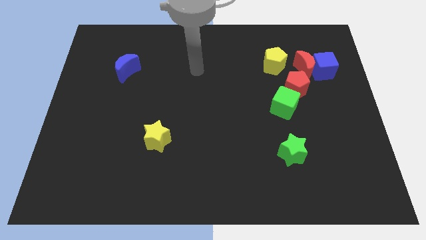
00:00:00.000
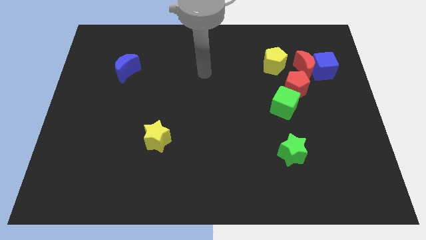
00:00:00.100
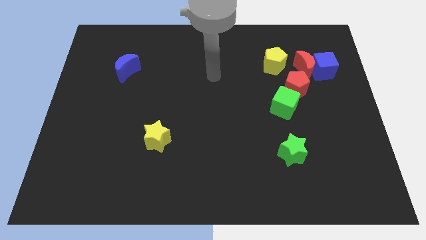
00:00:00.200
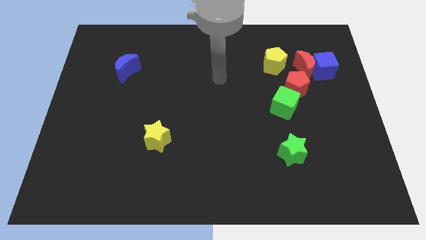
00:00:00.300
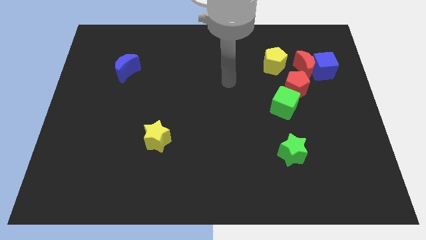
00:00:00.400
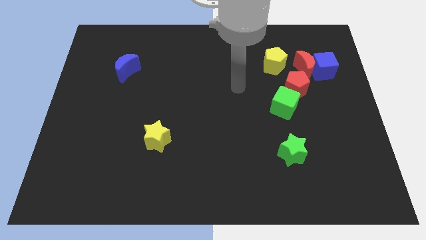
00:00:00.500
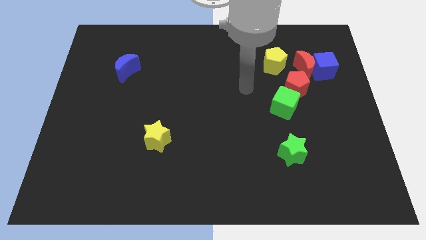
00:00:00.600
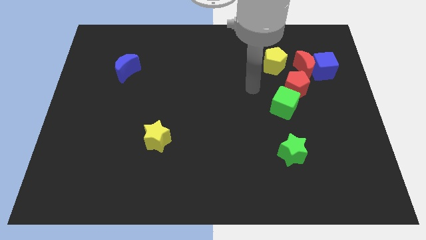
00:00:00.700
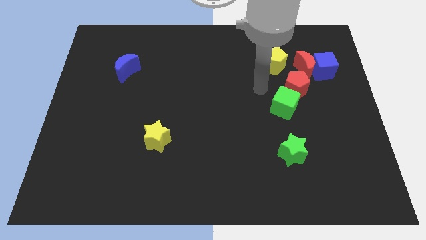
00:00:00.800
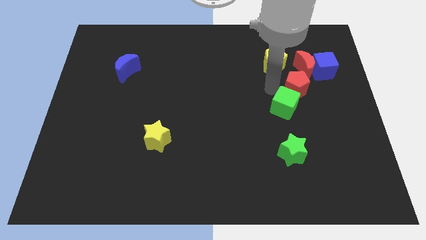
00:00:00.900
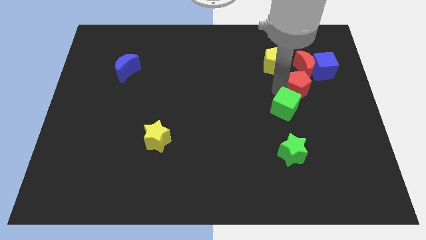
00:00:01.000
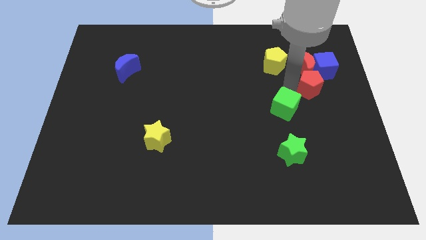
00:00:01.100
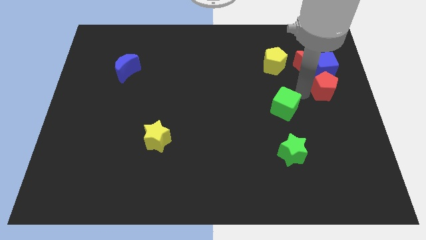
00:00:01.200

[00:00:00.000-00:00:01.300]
separate the green cube from the red pentagon

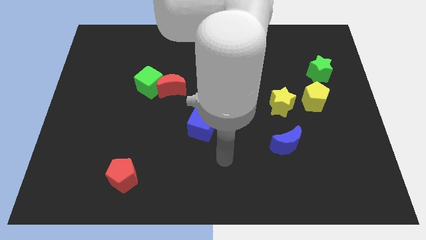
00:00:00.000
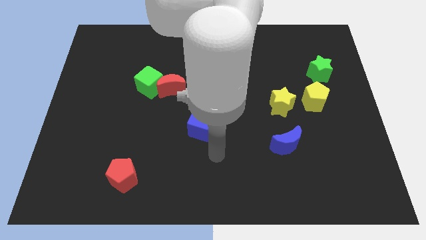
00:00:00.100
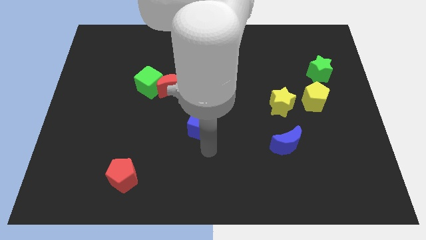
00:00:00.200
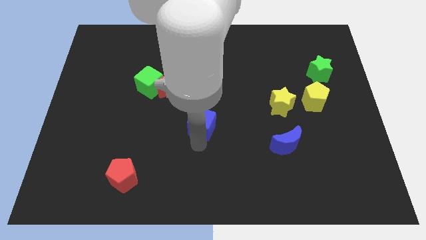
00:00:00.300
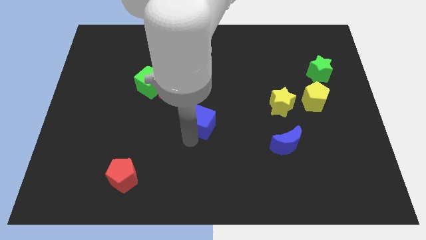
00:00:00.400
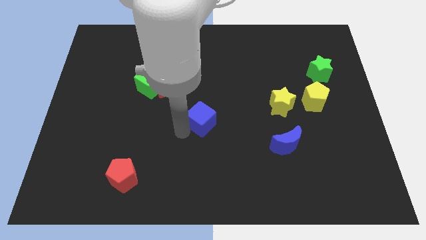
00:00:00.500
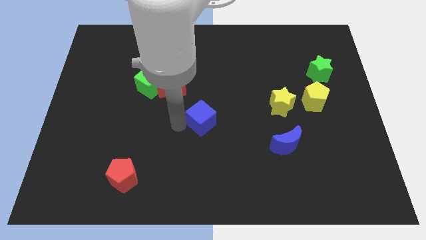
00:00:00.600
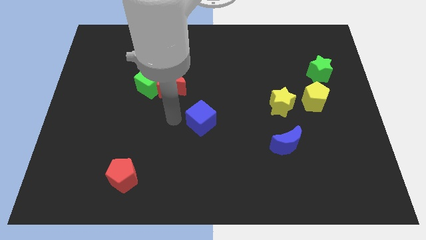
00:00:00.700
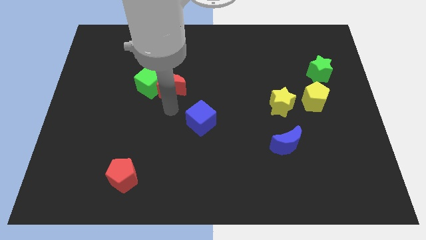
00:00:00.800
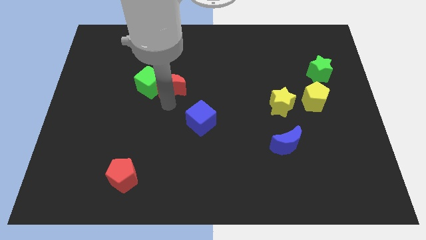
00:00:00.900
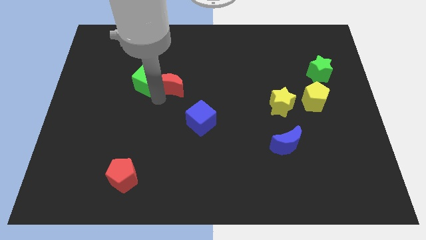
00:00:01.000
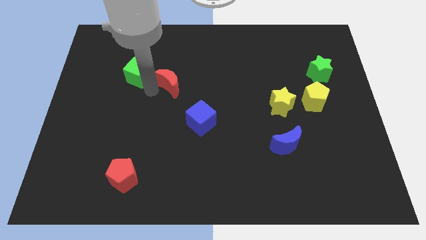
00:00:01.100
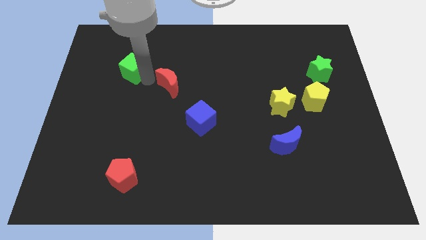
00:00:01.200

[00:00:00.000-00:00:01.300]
move the red moon away from the green cube

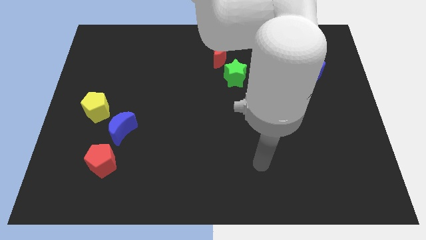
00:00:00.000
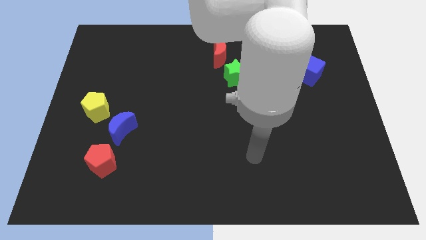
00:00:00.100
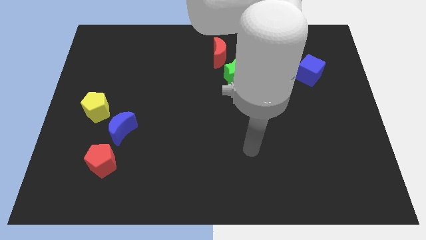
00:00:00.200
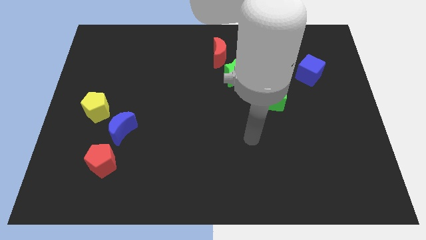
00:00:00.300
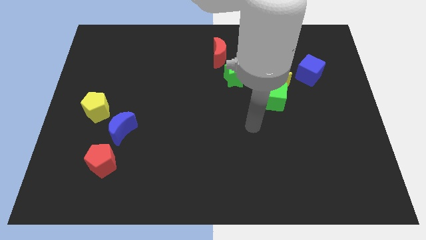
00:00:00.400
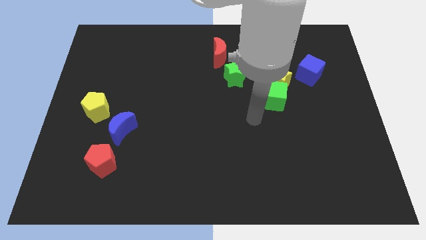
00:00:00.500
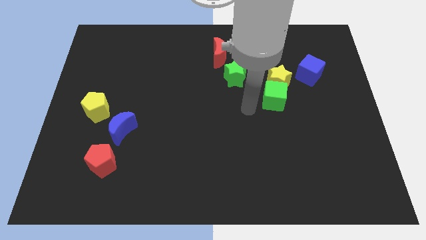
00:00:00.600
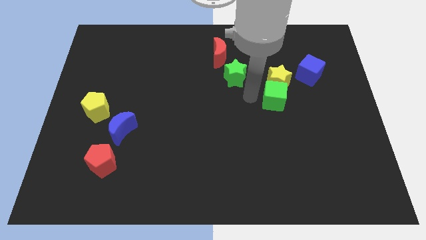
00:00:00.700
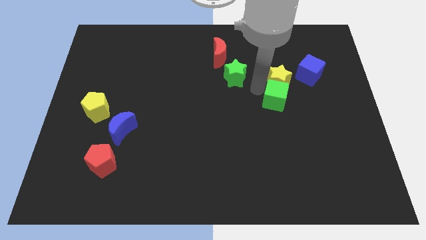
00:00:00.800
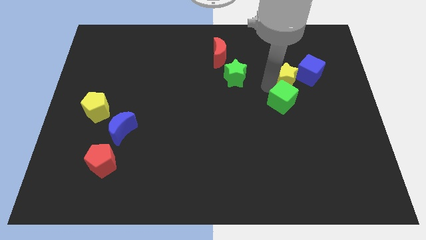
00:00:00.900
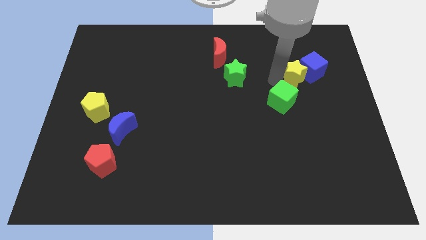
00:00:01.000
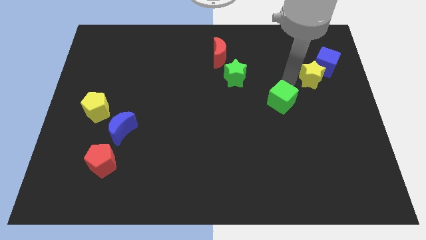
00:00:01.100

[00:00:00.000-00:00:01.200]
separate the green cube from the yellow star

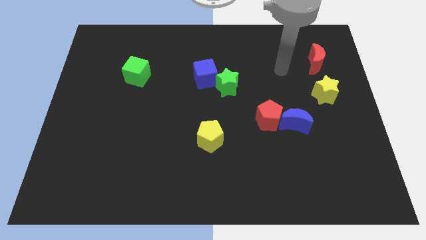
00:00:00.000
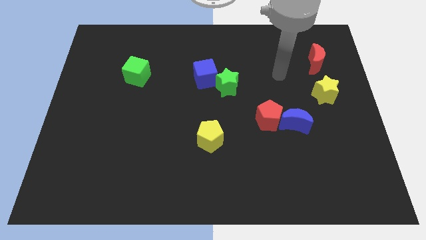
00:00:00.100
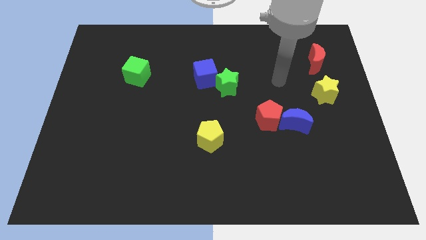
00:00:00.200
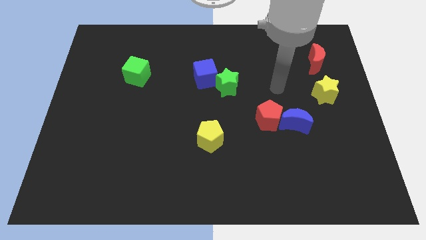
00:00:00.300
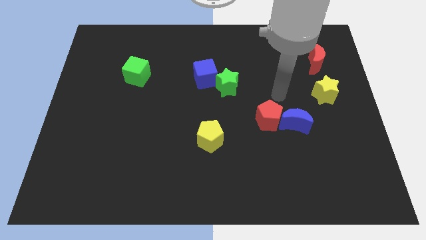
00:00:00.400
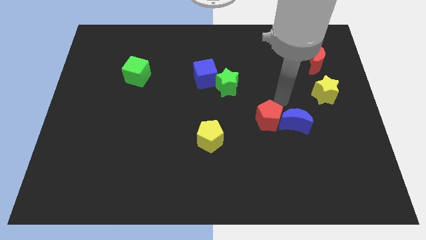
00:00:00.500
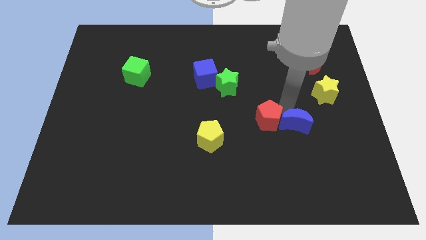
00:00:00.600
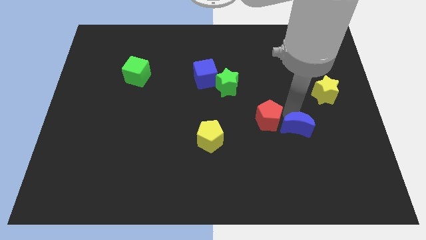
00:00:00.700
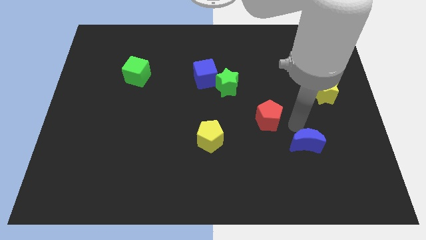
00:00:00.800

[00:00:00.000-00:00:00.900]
pull the red pentagon apart from the blue moon

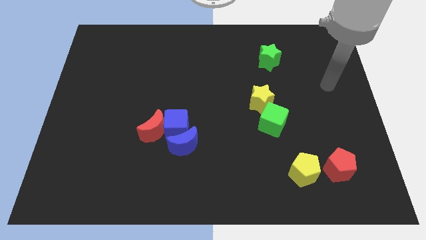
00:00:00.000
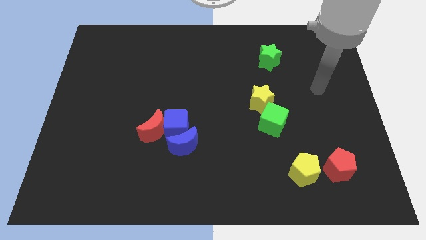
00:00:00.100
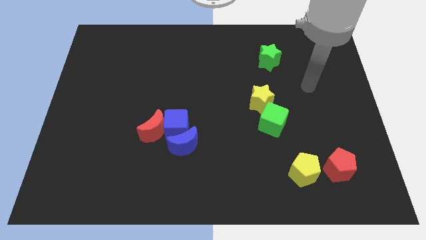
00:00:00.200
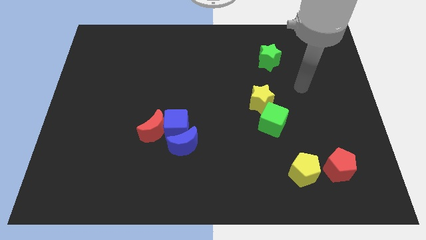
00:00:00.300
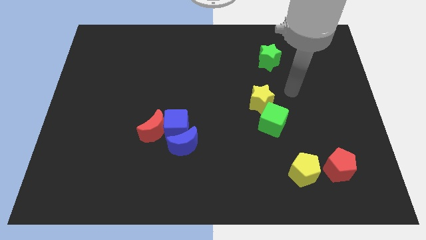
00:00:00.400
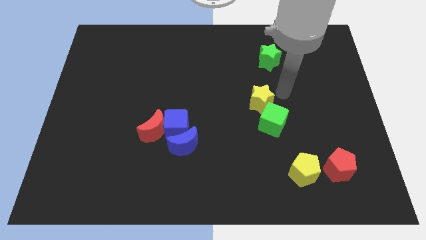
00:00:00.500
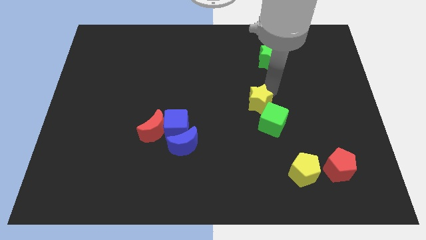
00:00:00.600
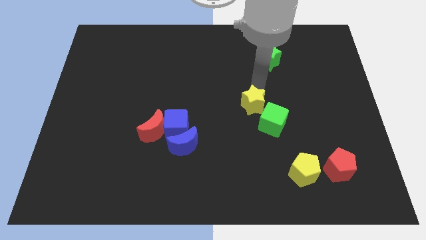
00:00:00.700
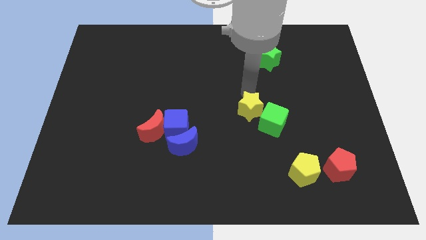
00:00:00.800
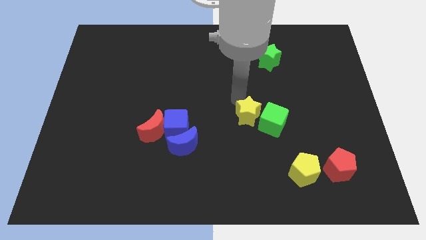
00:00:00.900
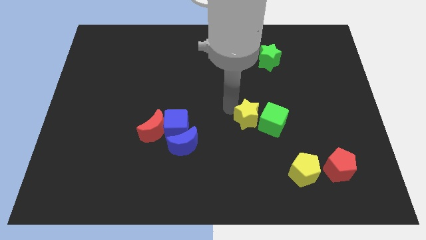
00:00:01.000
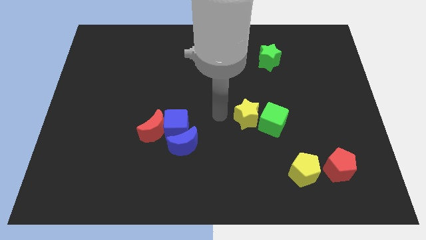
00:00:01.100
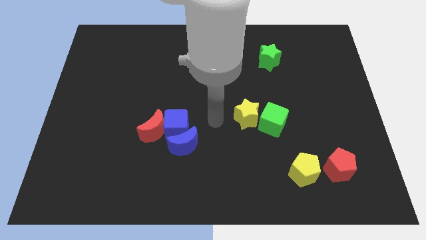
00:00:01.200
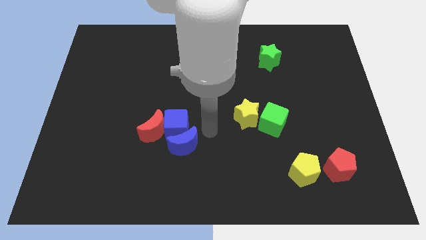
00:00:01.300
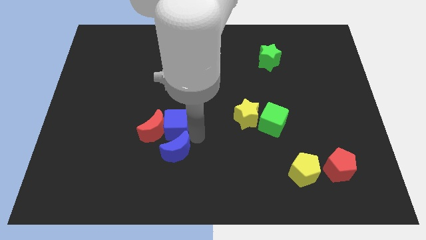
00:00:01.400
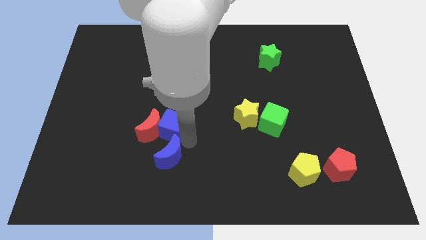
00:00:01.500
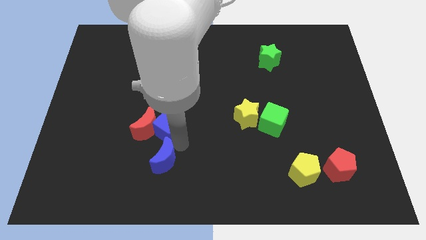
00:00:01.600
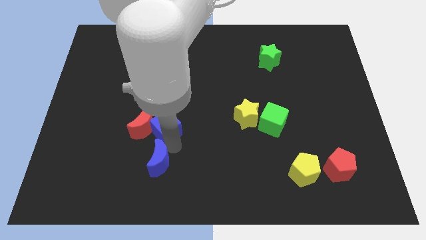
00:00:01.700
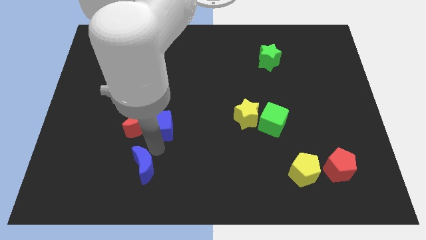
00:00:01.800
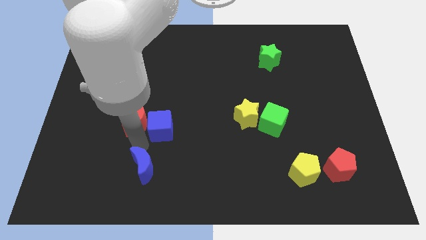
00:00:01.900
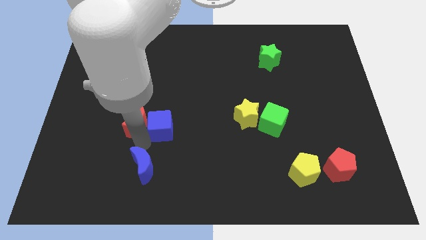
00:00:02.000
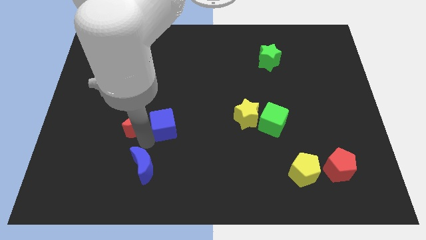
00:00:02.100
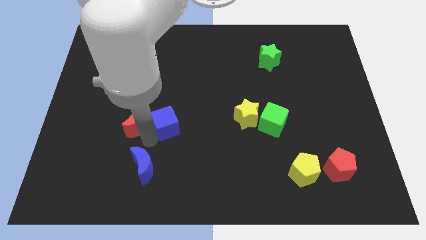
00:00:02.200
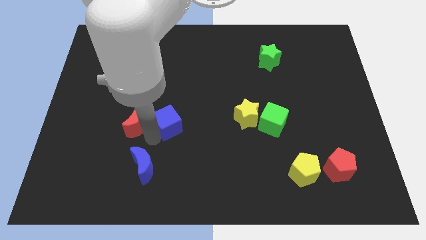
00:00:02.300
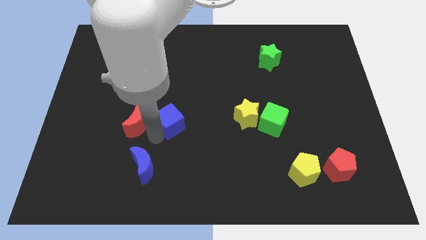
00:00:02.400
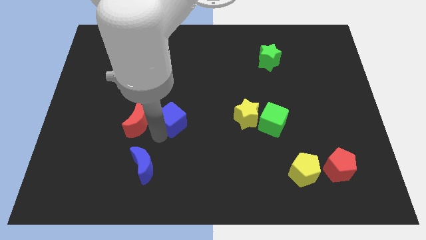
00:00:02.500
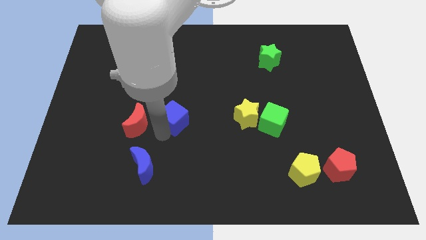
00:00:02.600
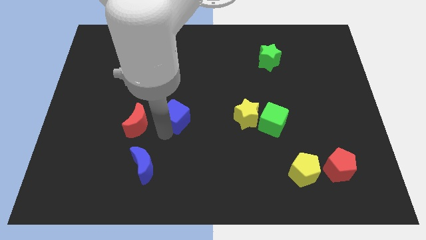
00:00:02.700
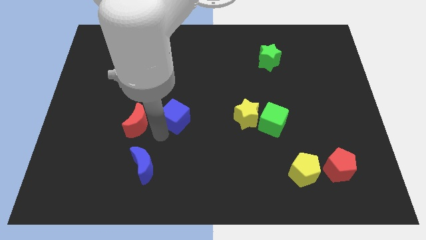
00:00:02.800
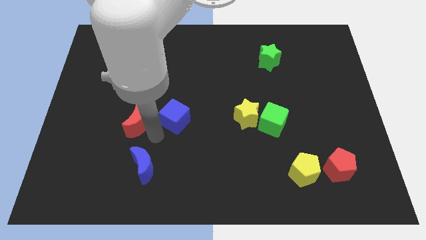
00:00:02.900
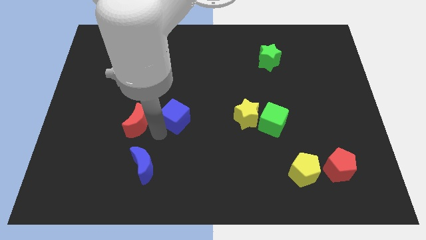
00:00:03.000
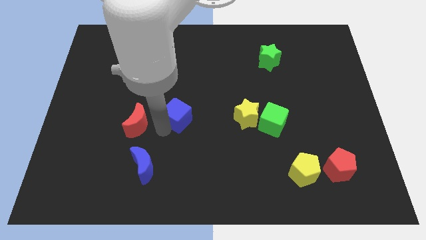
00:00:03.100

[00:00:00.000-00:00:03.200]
pull the blue cube apart from the red moon and blue moon

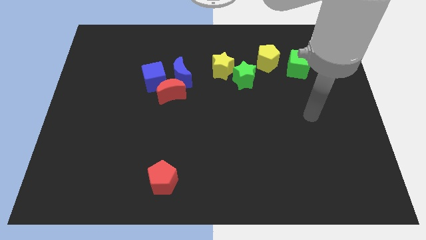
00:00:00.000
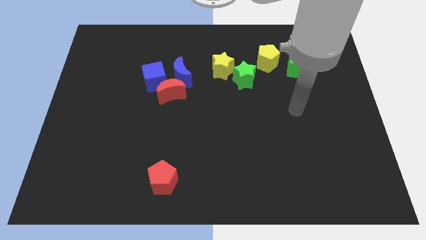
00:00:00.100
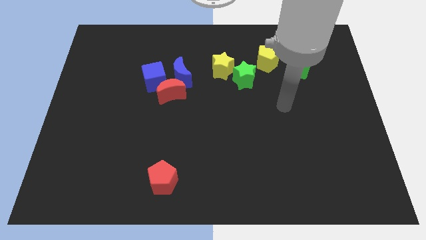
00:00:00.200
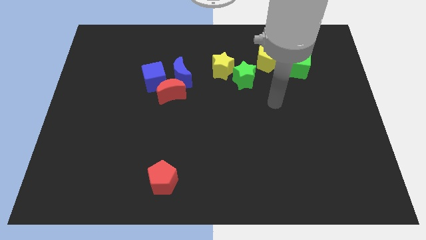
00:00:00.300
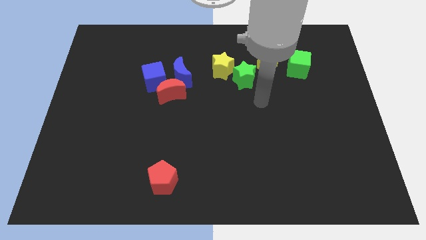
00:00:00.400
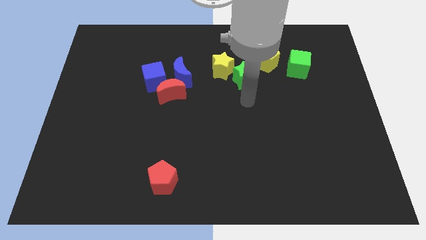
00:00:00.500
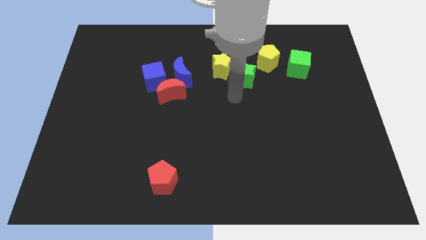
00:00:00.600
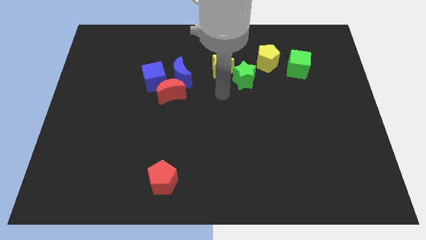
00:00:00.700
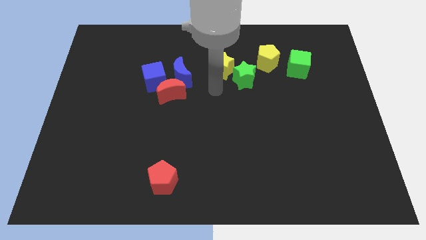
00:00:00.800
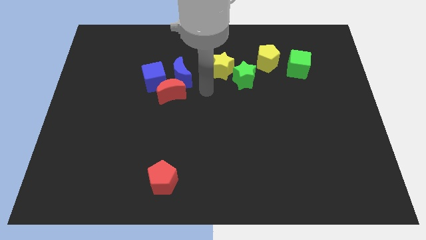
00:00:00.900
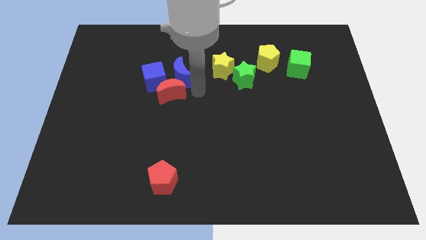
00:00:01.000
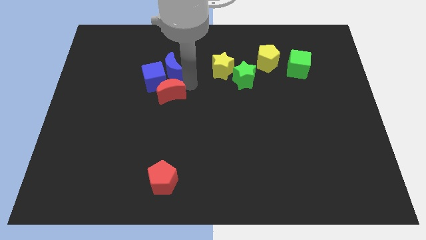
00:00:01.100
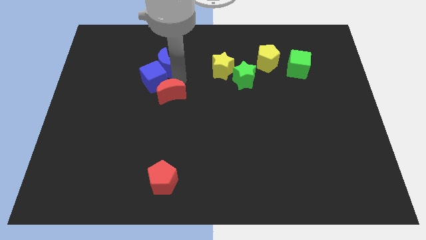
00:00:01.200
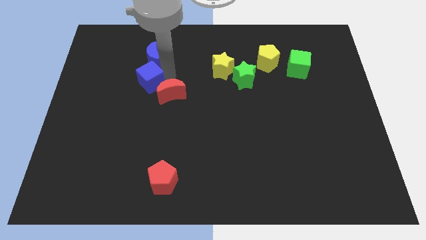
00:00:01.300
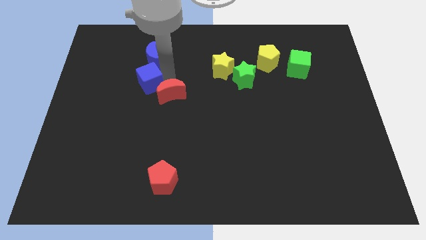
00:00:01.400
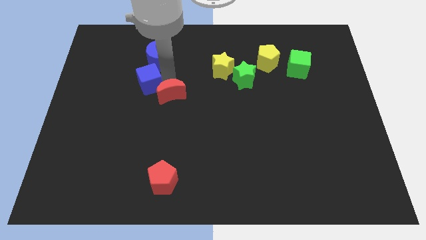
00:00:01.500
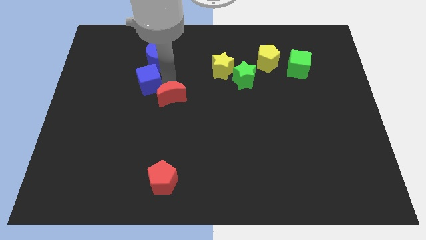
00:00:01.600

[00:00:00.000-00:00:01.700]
pull the red moon apart from the blue moon and blue cube
